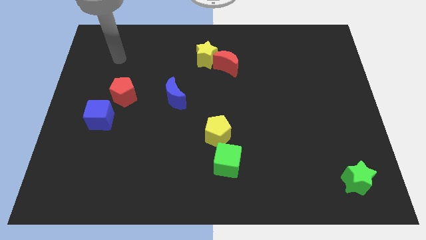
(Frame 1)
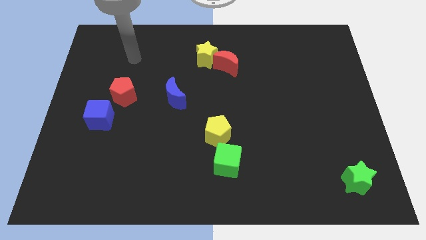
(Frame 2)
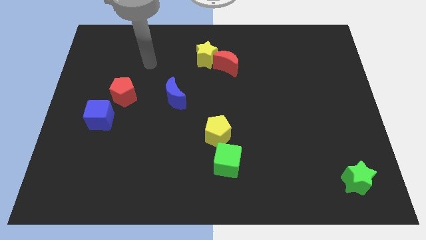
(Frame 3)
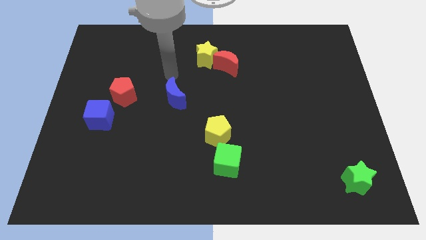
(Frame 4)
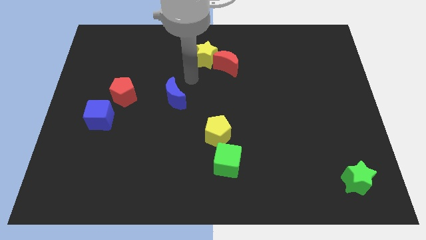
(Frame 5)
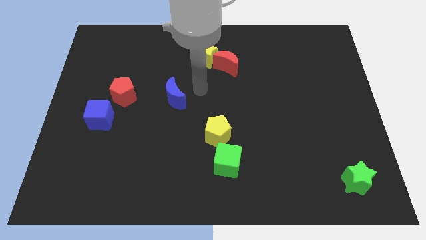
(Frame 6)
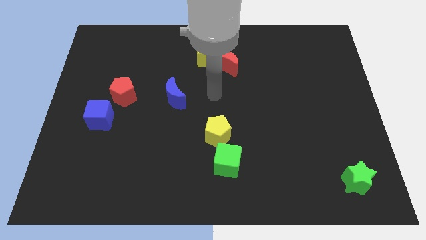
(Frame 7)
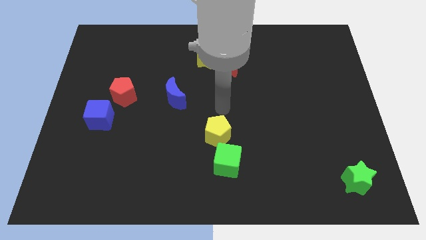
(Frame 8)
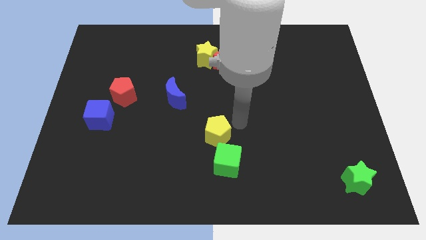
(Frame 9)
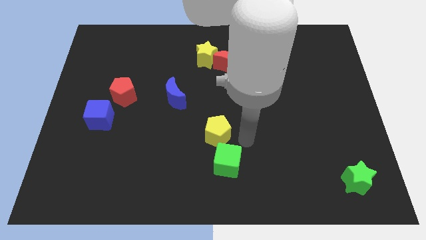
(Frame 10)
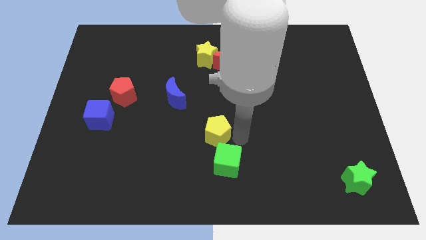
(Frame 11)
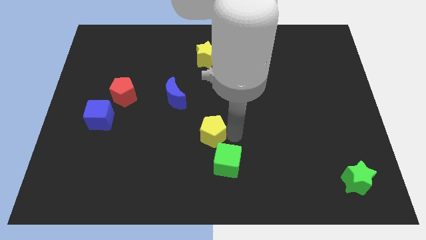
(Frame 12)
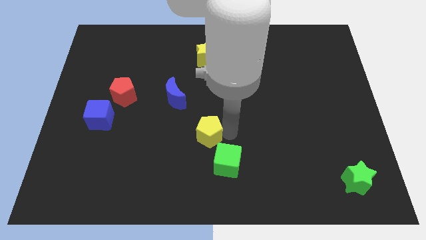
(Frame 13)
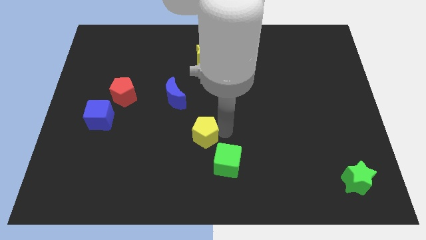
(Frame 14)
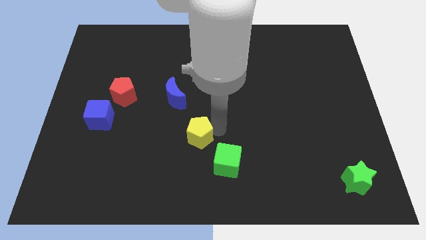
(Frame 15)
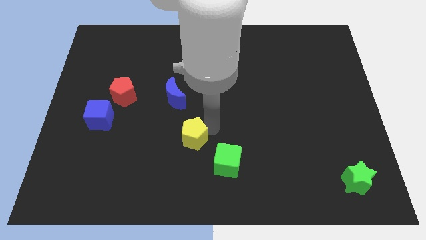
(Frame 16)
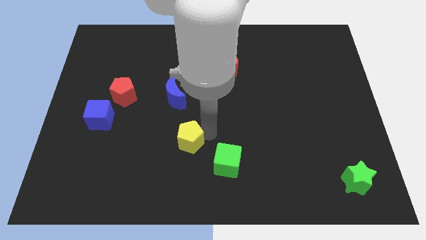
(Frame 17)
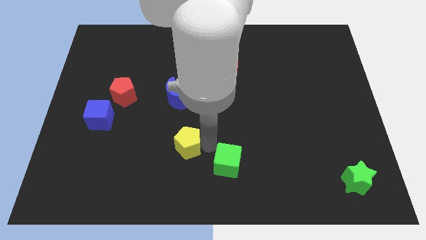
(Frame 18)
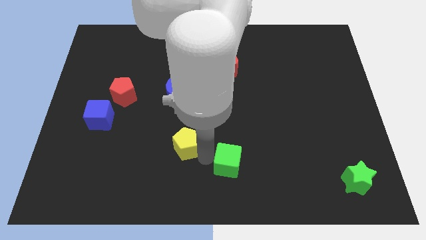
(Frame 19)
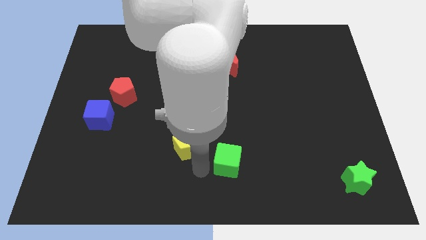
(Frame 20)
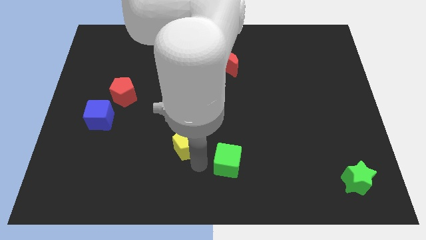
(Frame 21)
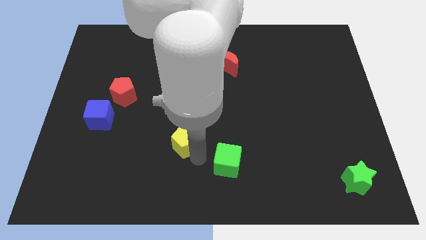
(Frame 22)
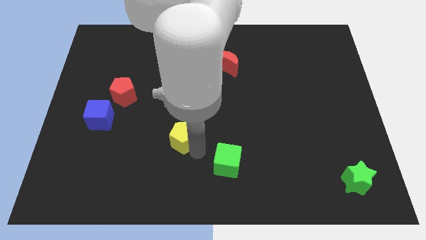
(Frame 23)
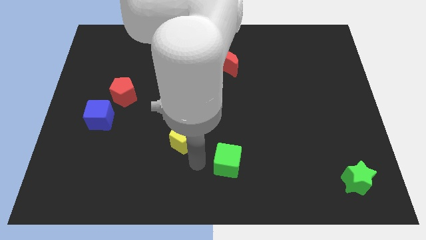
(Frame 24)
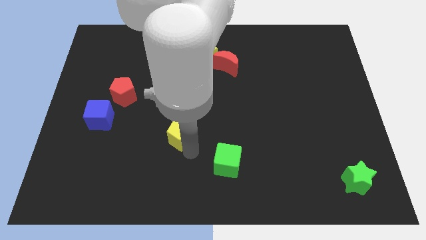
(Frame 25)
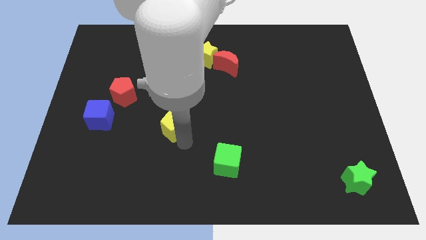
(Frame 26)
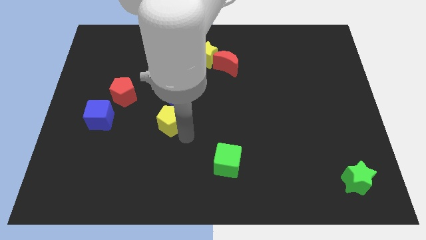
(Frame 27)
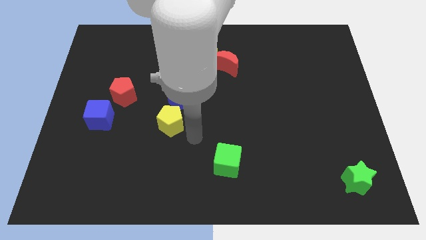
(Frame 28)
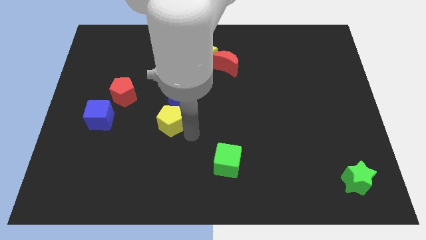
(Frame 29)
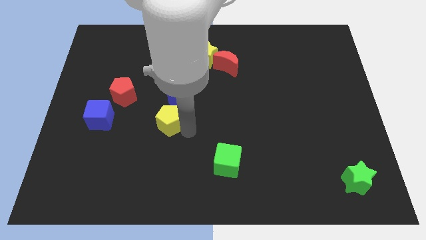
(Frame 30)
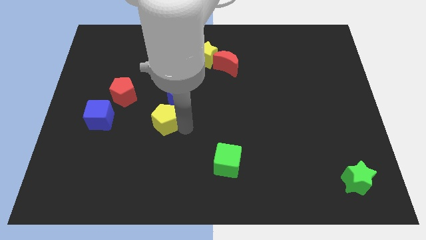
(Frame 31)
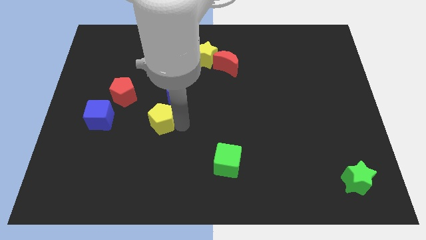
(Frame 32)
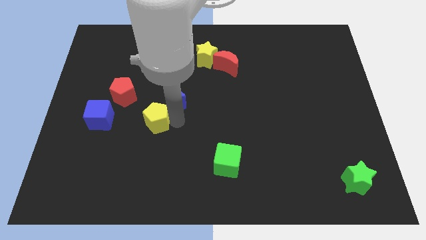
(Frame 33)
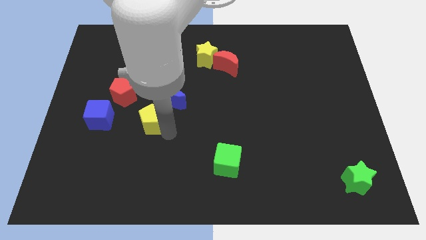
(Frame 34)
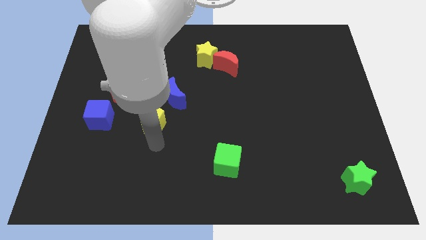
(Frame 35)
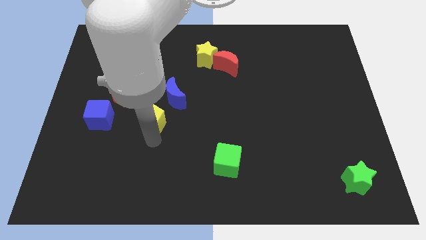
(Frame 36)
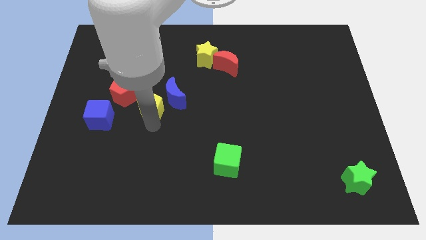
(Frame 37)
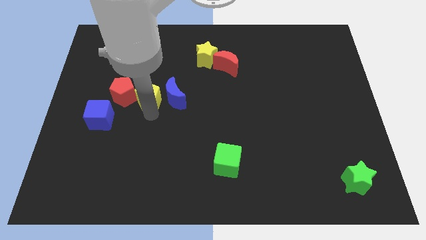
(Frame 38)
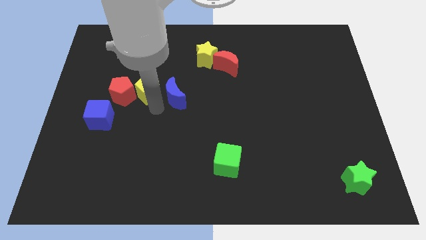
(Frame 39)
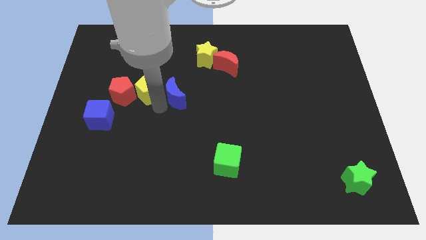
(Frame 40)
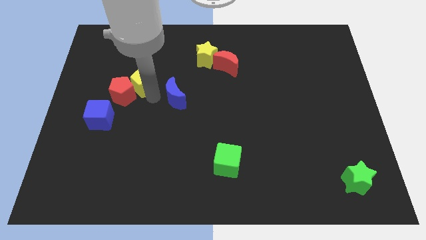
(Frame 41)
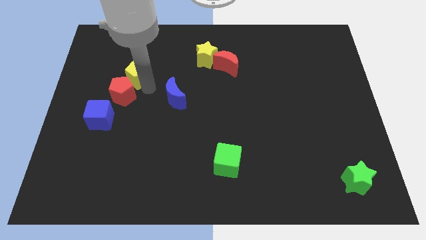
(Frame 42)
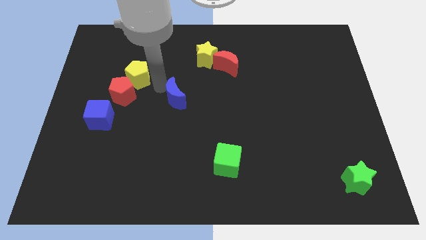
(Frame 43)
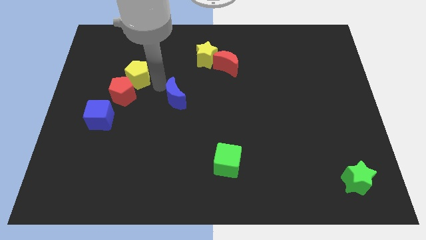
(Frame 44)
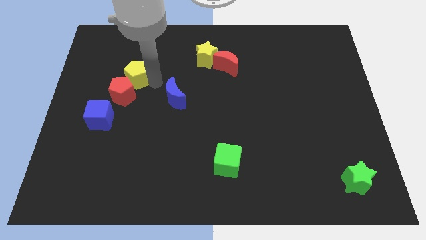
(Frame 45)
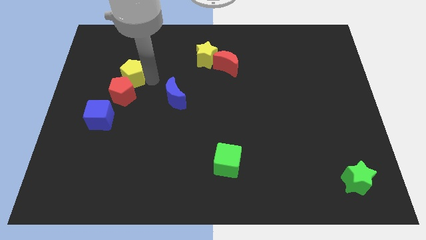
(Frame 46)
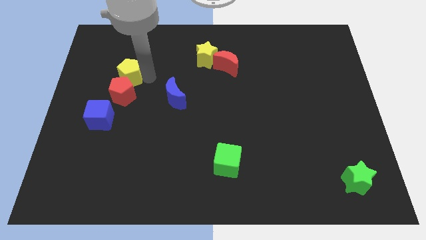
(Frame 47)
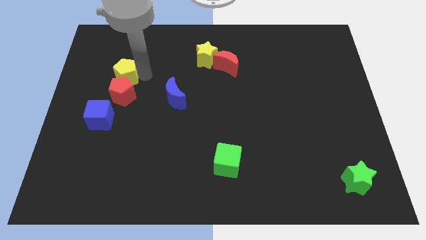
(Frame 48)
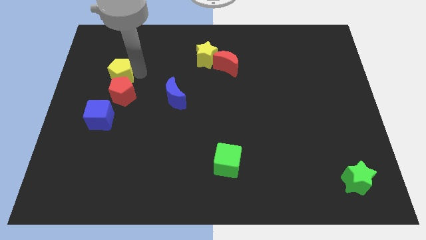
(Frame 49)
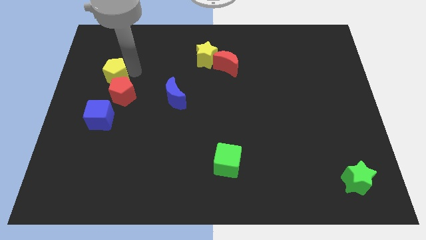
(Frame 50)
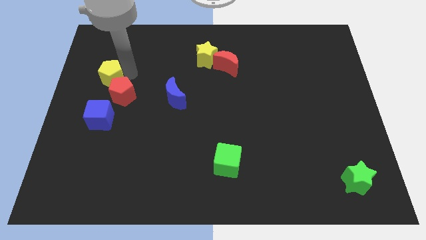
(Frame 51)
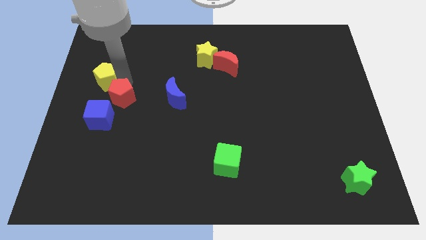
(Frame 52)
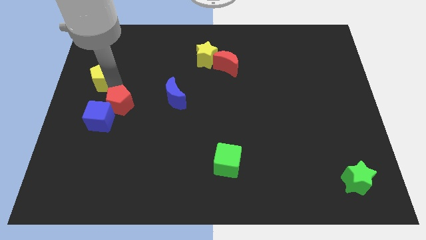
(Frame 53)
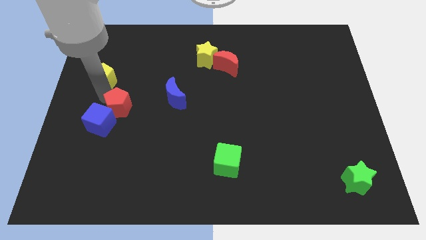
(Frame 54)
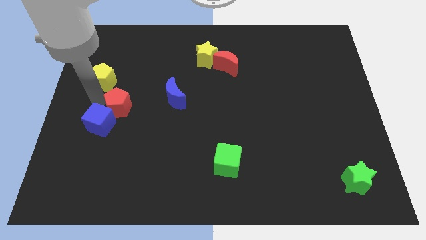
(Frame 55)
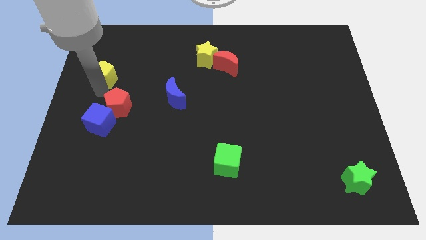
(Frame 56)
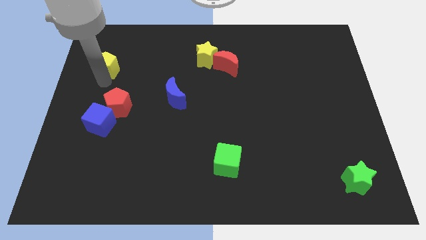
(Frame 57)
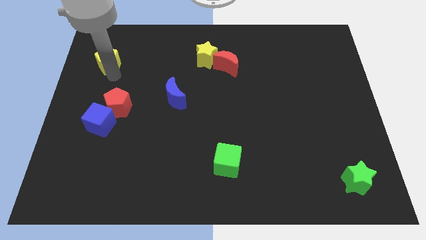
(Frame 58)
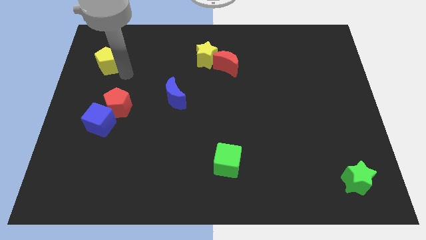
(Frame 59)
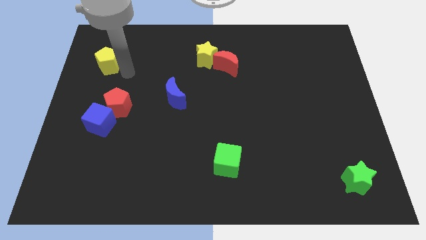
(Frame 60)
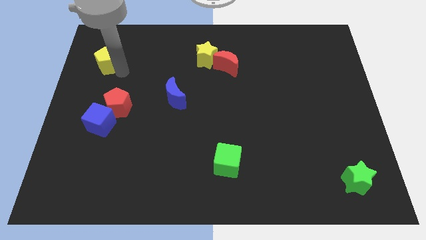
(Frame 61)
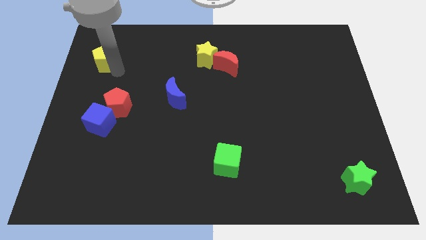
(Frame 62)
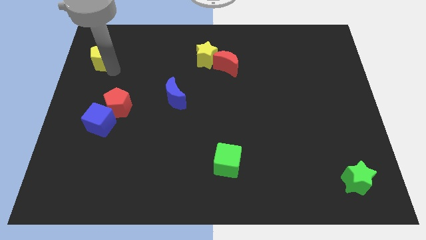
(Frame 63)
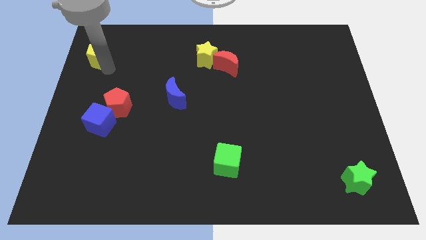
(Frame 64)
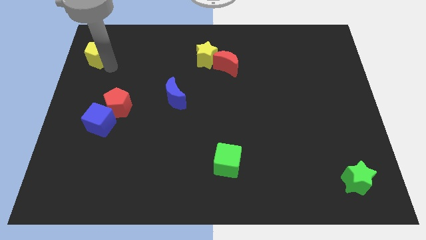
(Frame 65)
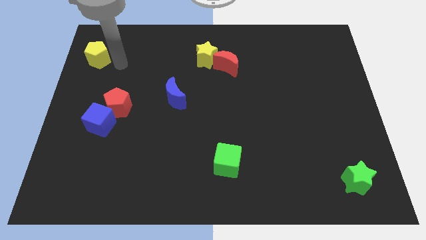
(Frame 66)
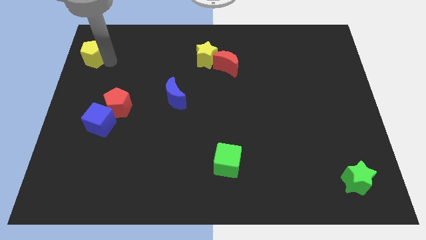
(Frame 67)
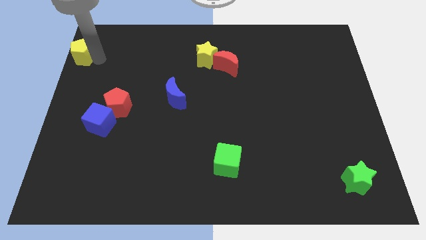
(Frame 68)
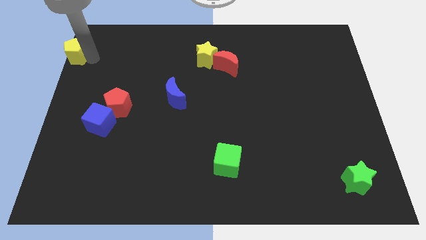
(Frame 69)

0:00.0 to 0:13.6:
push the yellow pentagon to the top left
